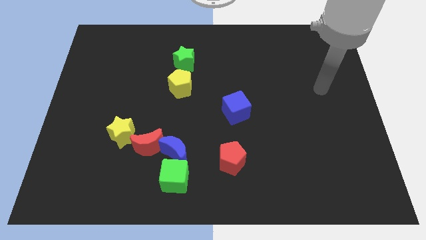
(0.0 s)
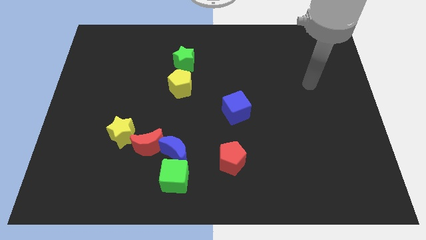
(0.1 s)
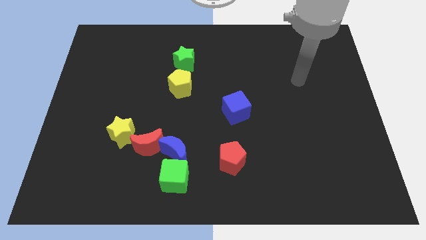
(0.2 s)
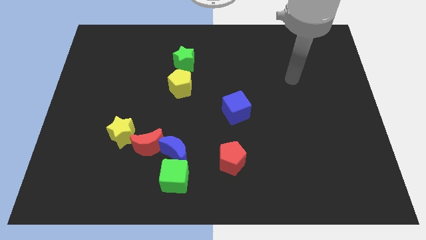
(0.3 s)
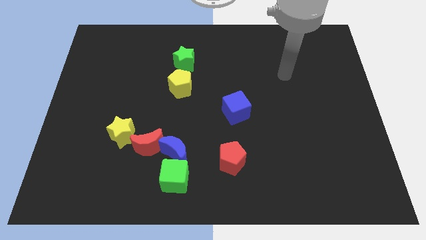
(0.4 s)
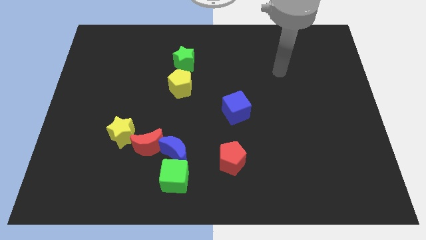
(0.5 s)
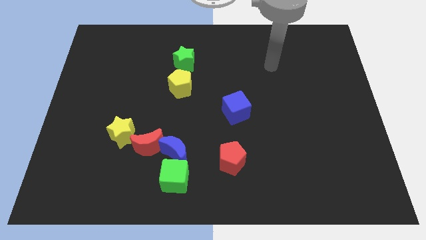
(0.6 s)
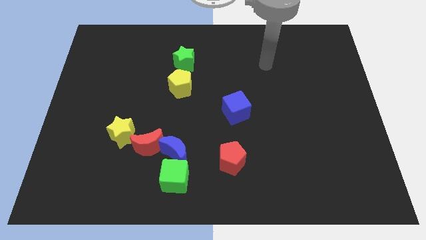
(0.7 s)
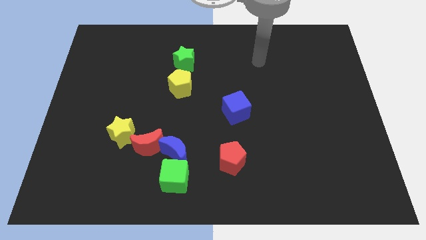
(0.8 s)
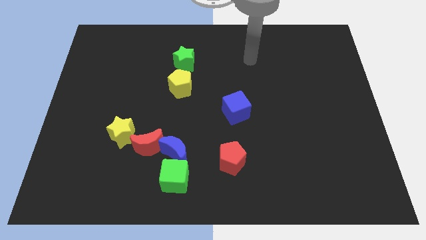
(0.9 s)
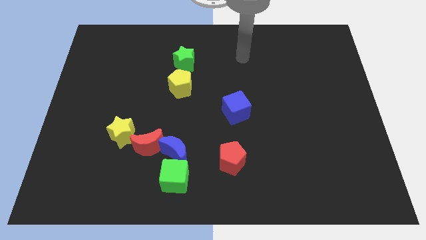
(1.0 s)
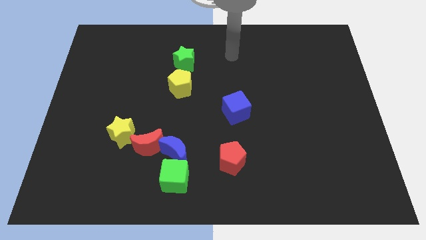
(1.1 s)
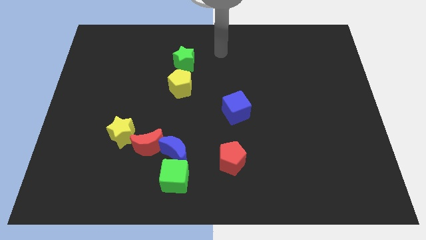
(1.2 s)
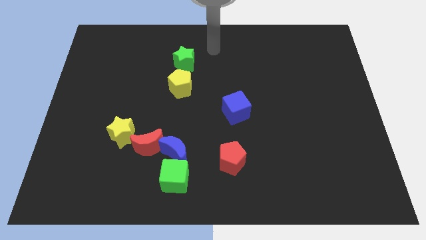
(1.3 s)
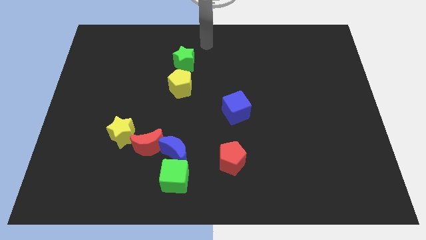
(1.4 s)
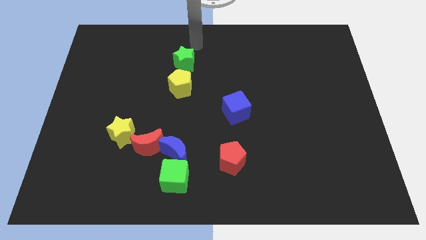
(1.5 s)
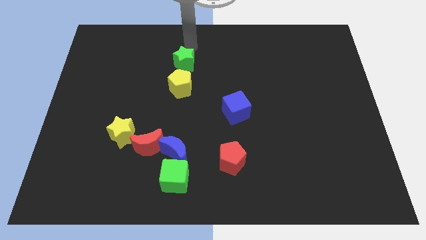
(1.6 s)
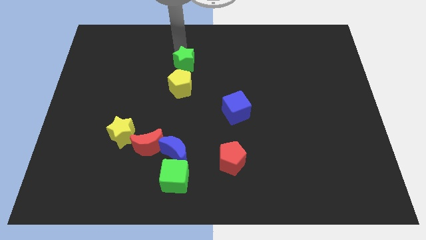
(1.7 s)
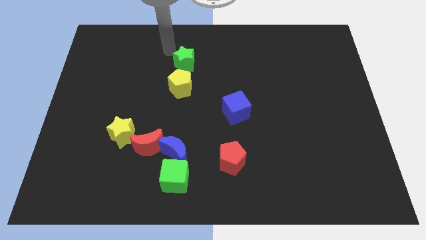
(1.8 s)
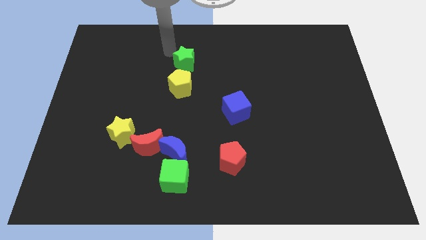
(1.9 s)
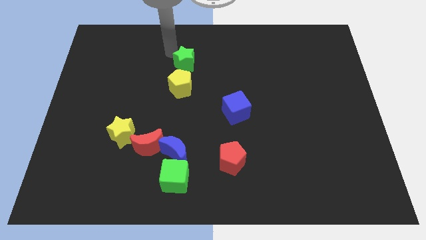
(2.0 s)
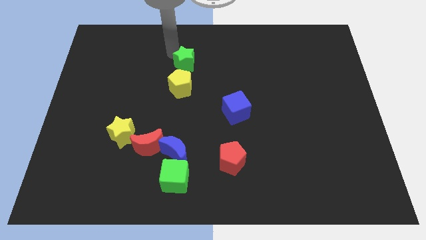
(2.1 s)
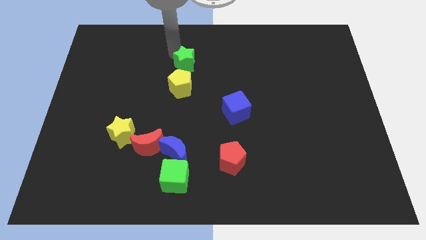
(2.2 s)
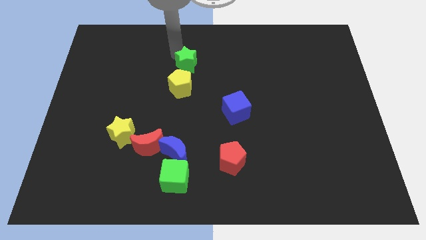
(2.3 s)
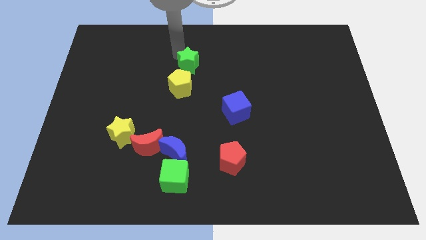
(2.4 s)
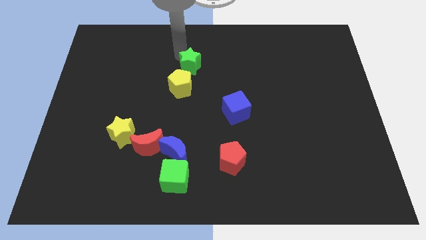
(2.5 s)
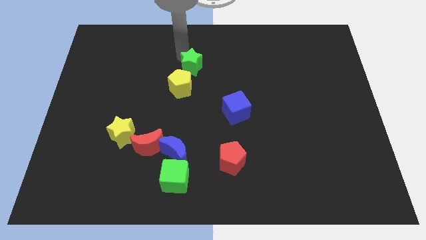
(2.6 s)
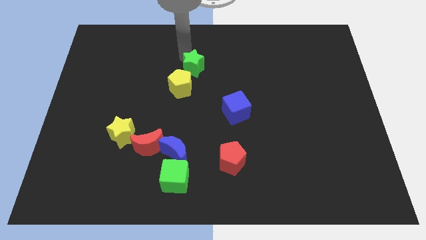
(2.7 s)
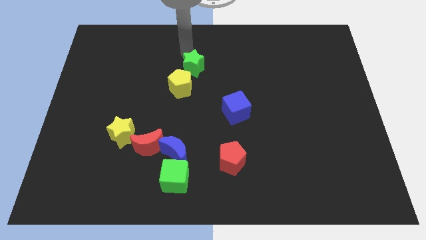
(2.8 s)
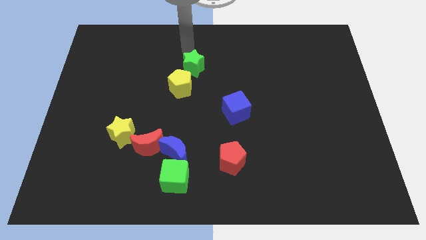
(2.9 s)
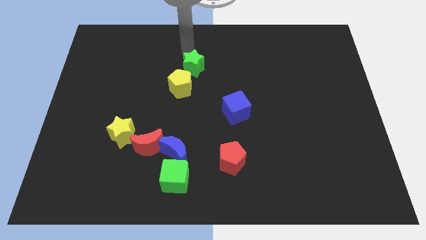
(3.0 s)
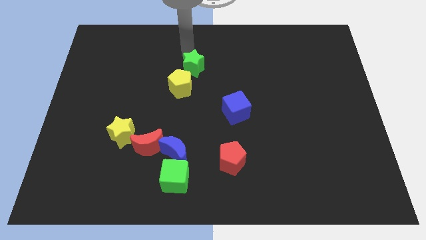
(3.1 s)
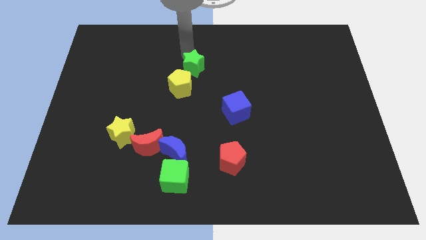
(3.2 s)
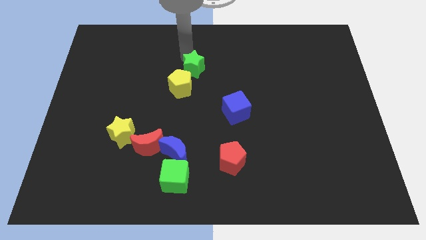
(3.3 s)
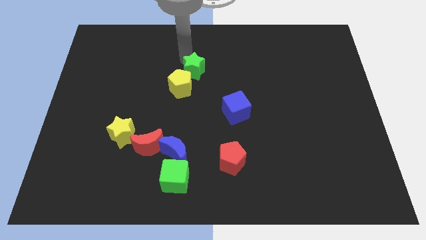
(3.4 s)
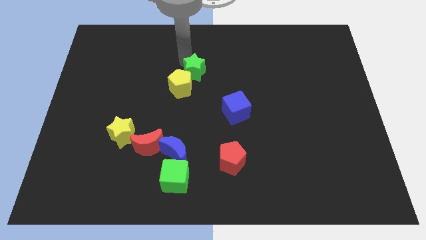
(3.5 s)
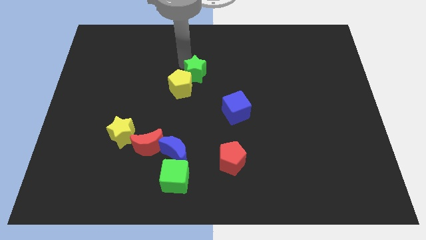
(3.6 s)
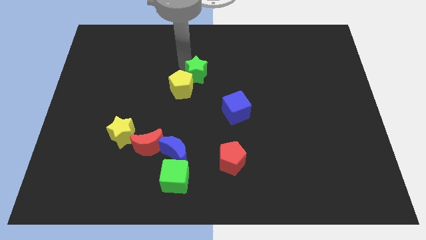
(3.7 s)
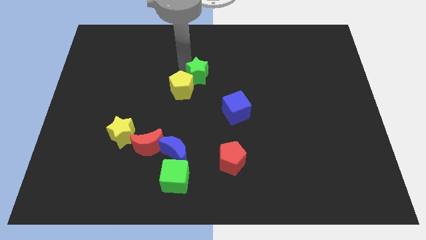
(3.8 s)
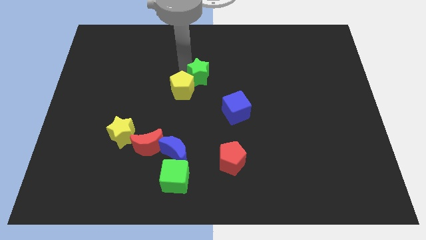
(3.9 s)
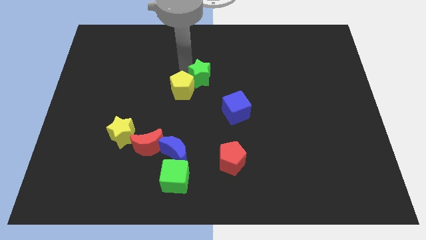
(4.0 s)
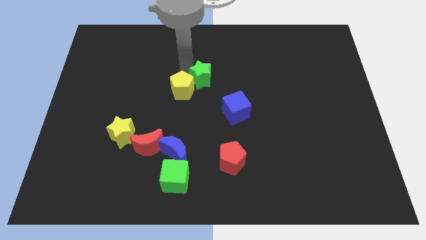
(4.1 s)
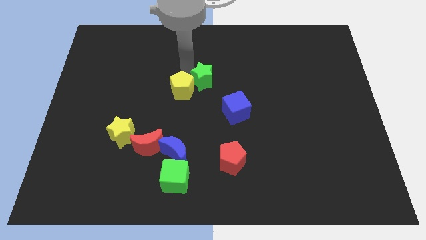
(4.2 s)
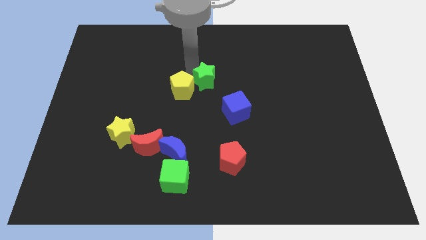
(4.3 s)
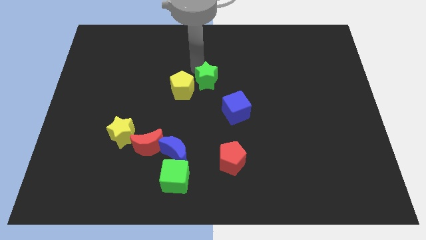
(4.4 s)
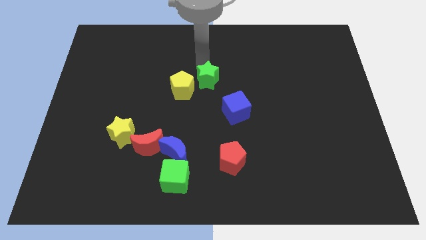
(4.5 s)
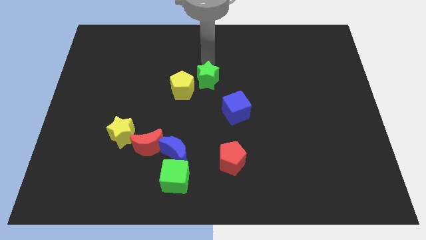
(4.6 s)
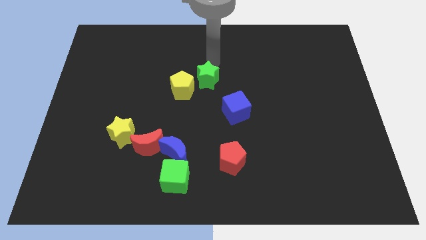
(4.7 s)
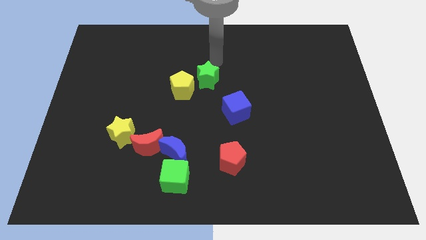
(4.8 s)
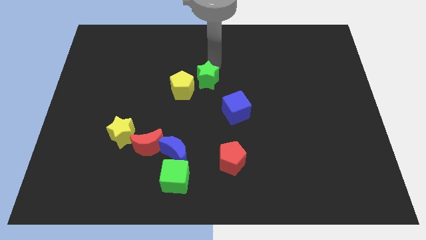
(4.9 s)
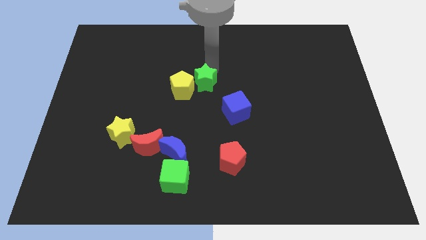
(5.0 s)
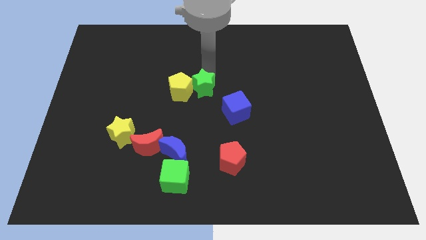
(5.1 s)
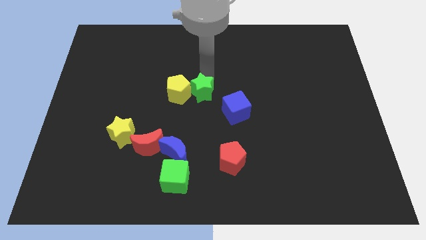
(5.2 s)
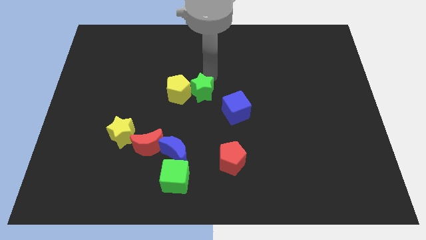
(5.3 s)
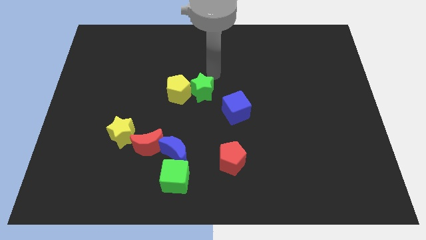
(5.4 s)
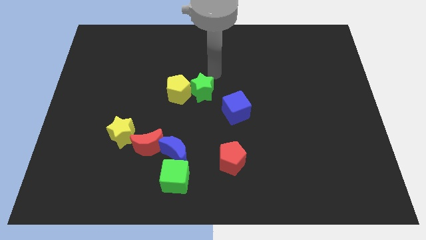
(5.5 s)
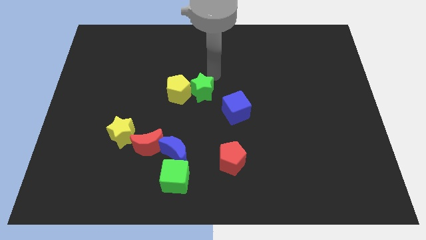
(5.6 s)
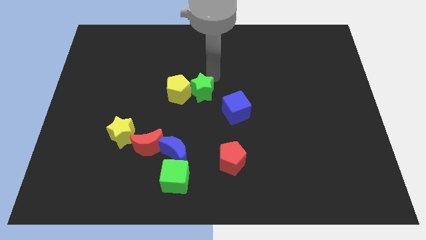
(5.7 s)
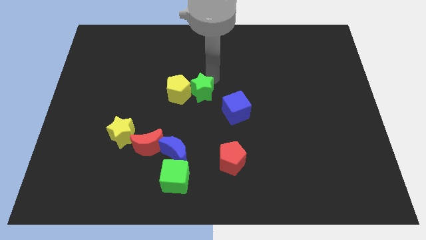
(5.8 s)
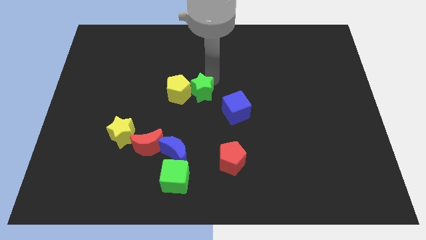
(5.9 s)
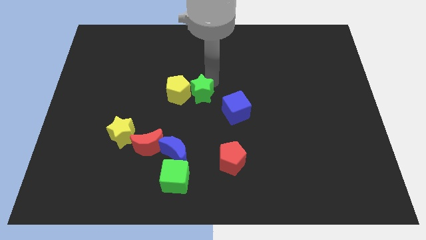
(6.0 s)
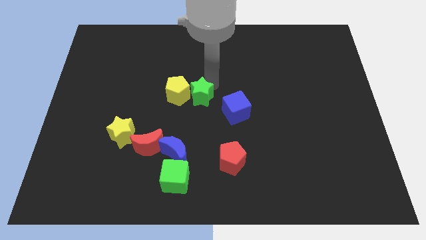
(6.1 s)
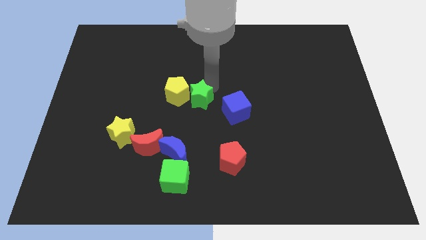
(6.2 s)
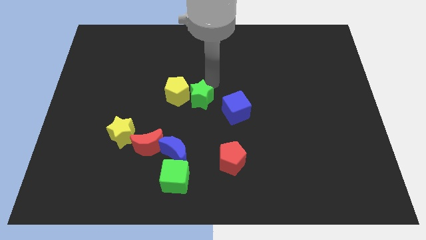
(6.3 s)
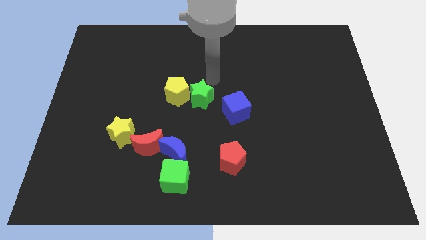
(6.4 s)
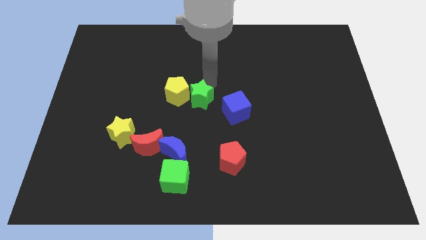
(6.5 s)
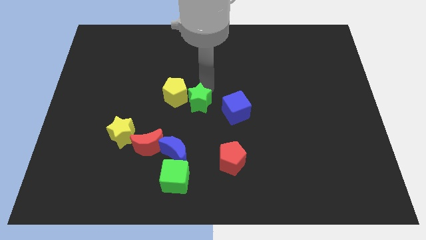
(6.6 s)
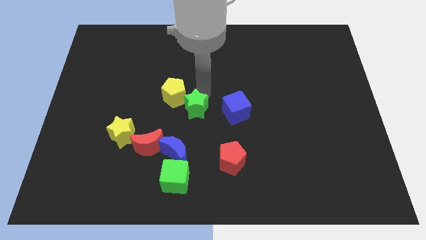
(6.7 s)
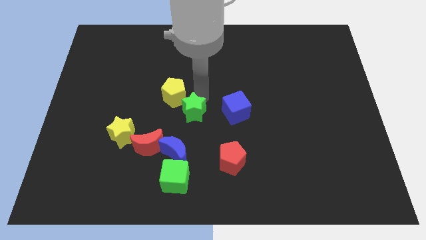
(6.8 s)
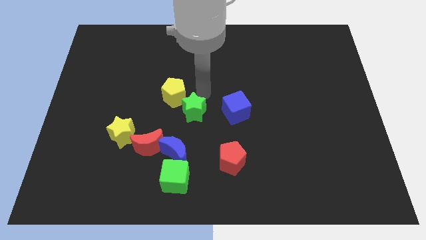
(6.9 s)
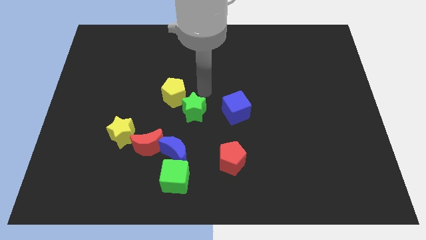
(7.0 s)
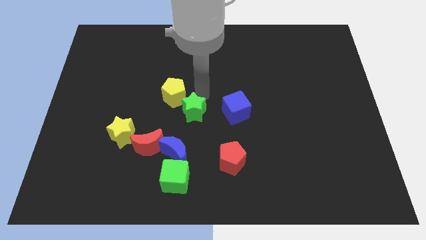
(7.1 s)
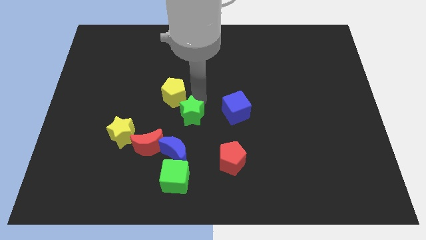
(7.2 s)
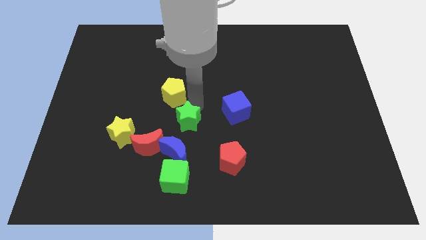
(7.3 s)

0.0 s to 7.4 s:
push the green star to the top of the green cube

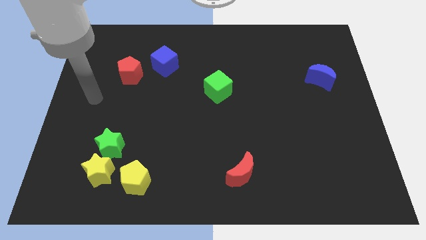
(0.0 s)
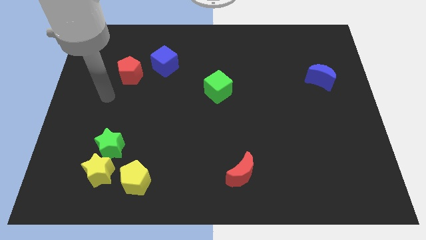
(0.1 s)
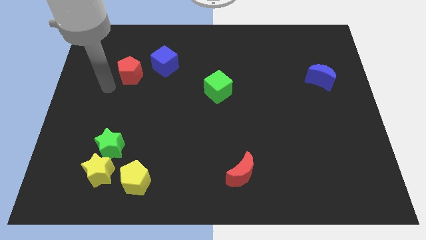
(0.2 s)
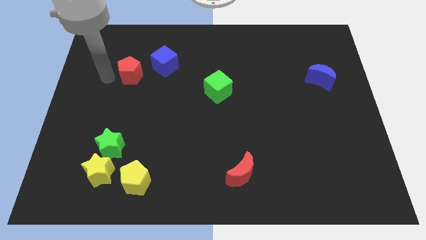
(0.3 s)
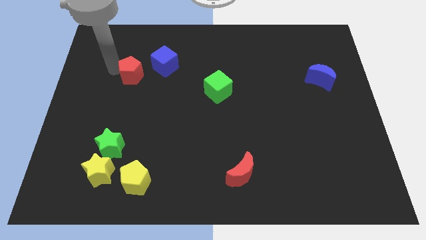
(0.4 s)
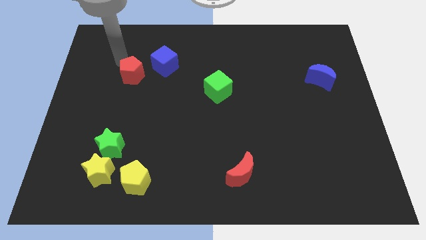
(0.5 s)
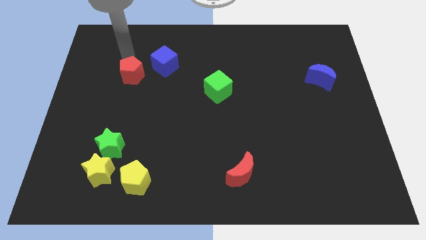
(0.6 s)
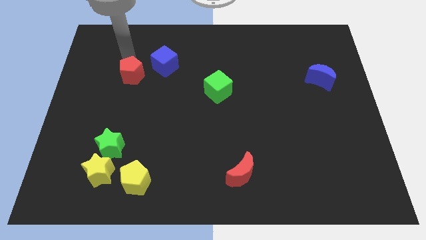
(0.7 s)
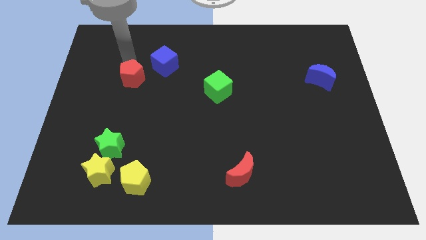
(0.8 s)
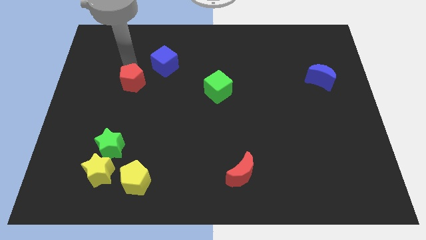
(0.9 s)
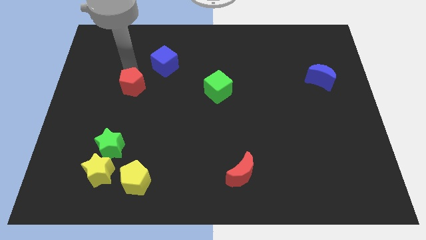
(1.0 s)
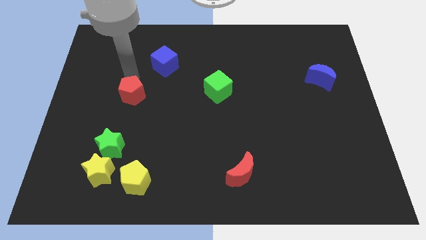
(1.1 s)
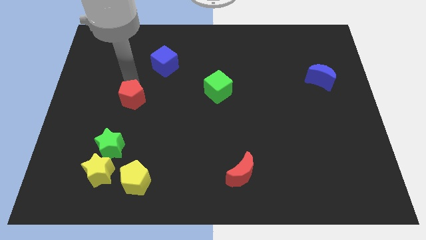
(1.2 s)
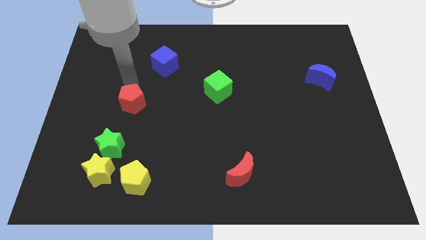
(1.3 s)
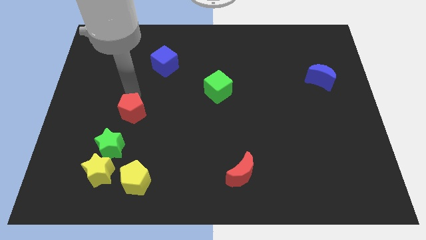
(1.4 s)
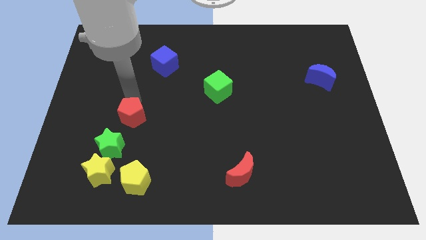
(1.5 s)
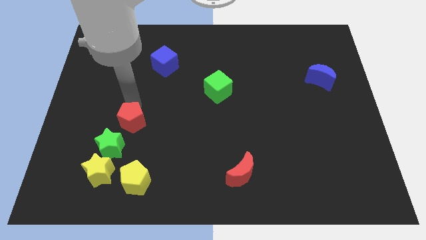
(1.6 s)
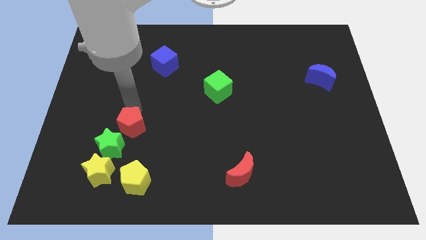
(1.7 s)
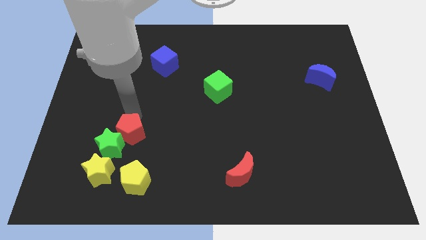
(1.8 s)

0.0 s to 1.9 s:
move the red pentagon to the top right of the yellow star
